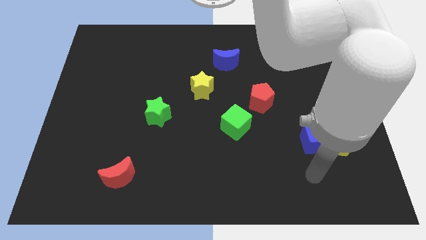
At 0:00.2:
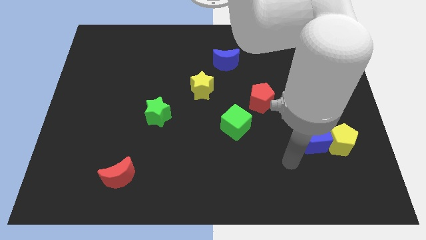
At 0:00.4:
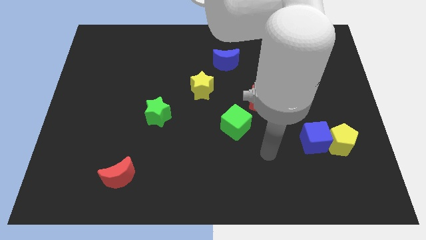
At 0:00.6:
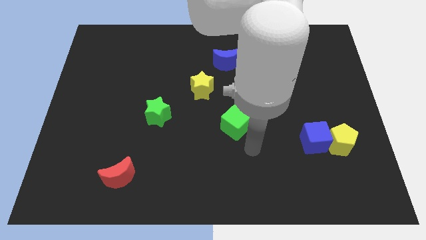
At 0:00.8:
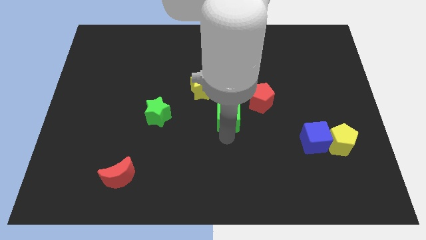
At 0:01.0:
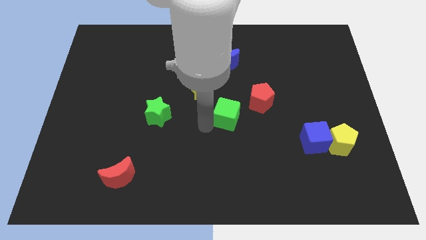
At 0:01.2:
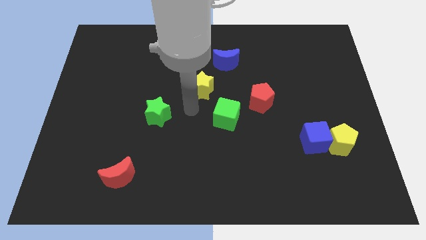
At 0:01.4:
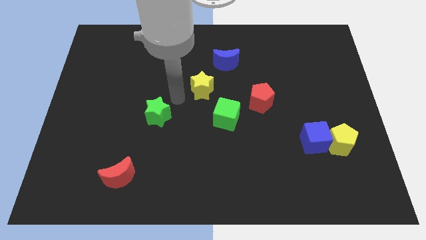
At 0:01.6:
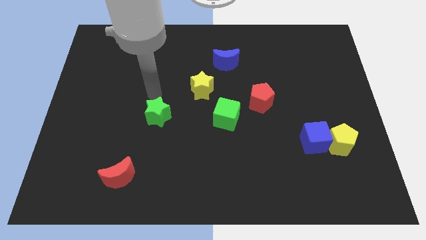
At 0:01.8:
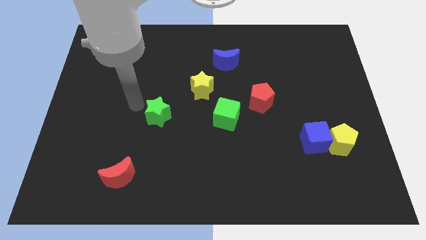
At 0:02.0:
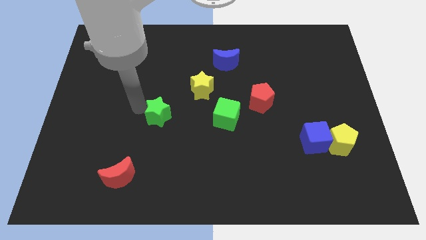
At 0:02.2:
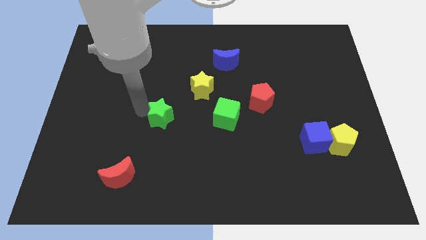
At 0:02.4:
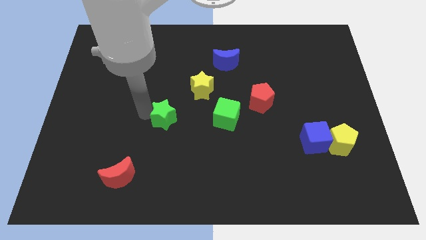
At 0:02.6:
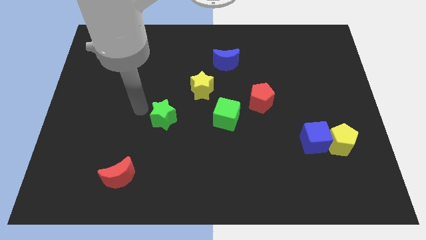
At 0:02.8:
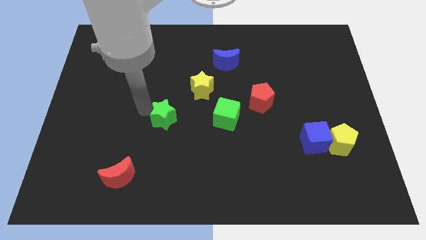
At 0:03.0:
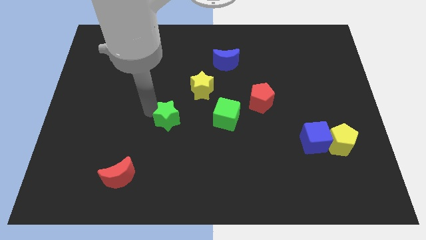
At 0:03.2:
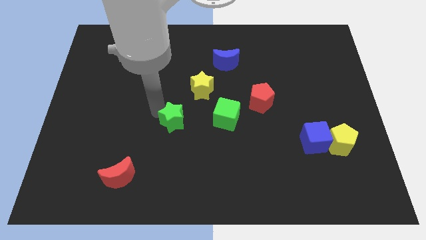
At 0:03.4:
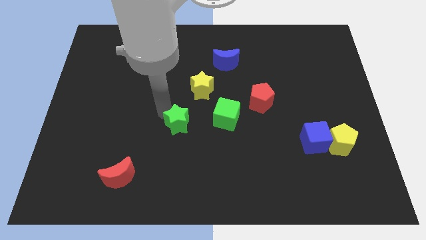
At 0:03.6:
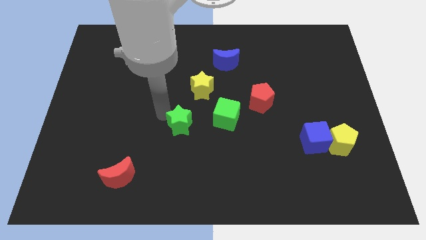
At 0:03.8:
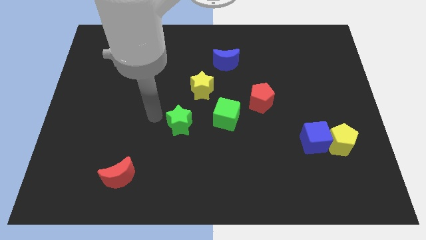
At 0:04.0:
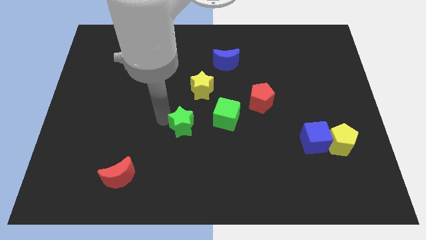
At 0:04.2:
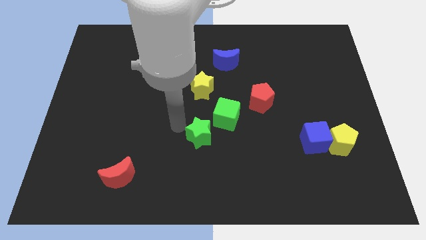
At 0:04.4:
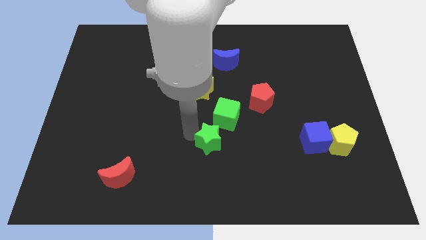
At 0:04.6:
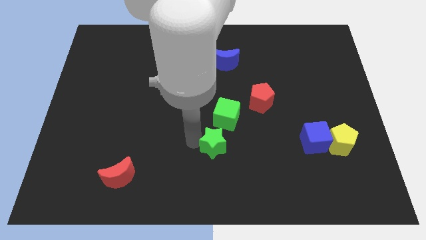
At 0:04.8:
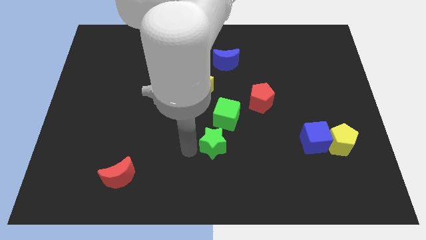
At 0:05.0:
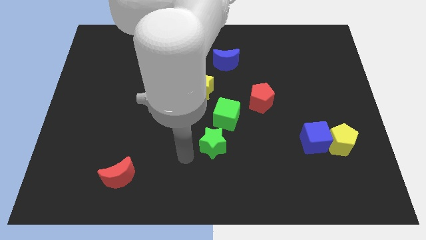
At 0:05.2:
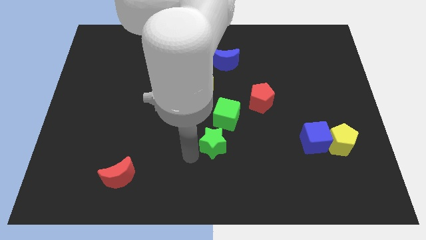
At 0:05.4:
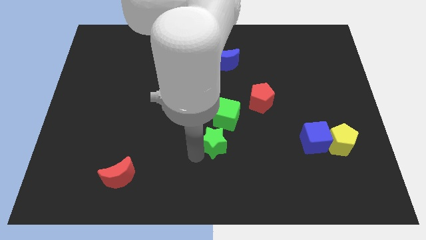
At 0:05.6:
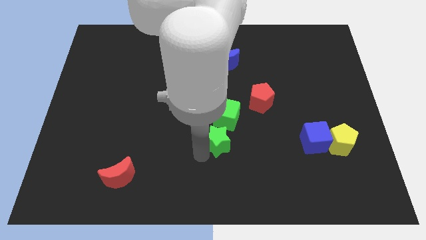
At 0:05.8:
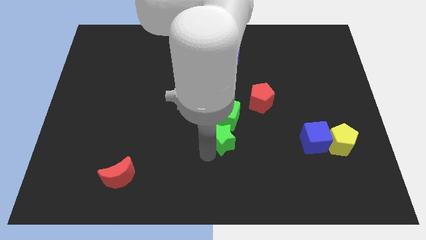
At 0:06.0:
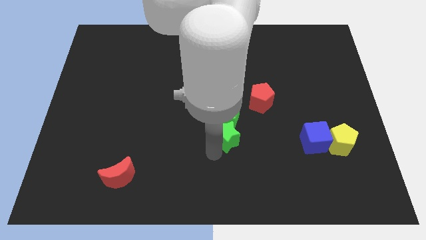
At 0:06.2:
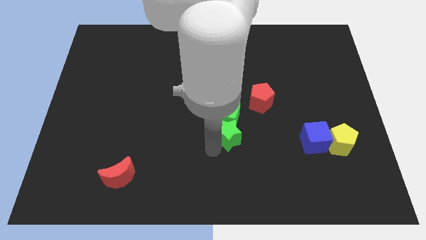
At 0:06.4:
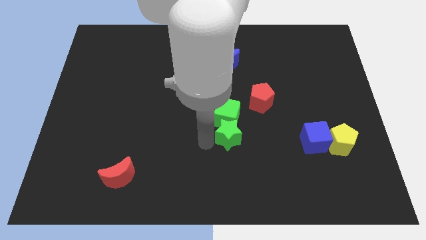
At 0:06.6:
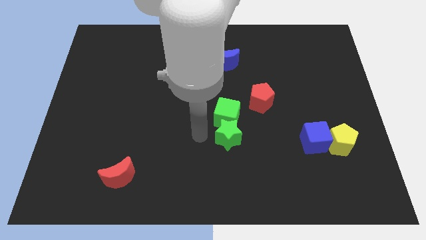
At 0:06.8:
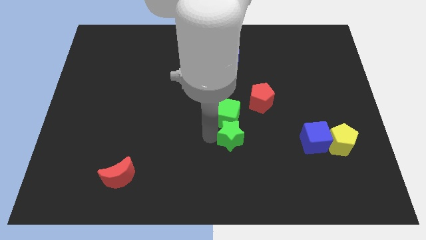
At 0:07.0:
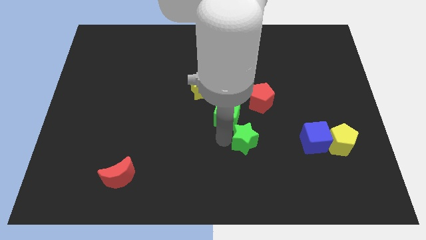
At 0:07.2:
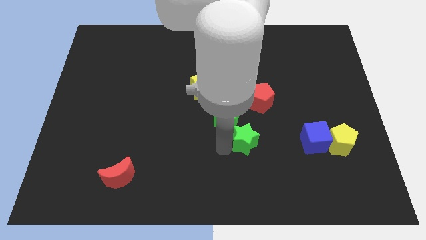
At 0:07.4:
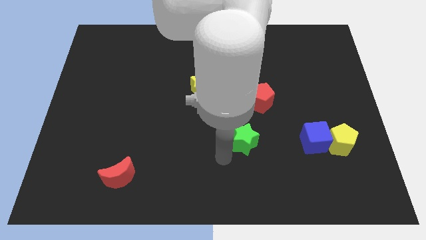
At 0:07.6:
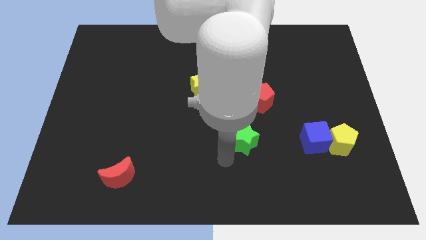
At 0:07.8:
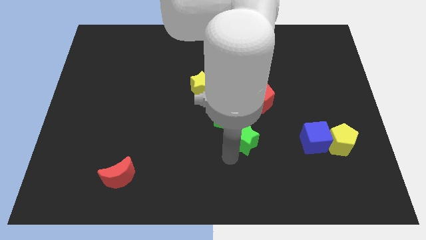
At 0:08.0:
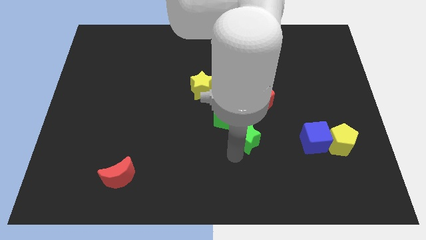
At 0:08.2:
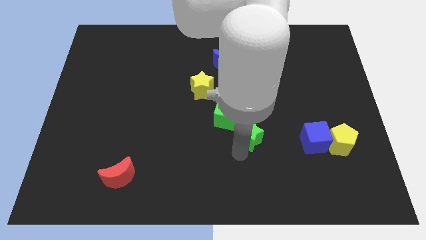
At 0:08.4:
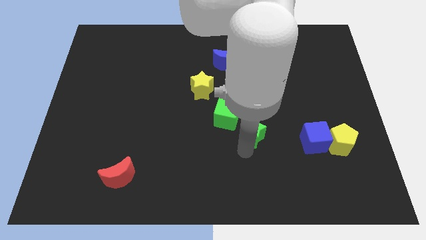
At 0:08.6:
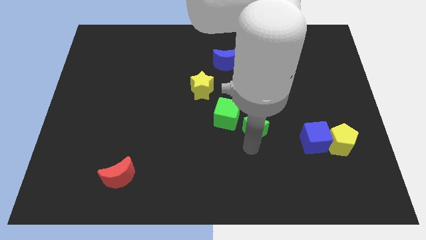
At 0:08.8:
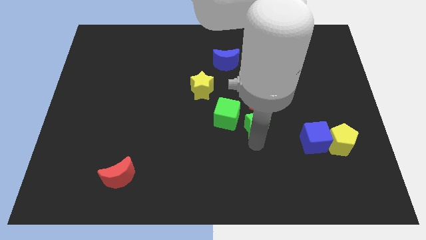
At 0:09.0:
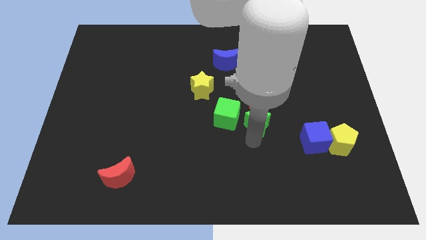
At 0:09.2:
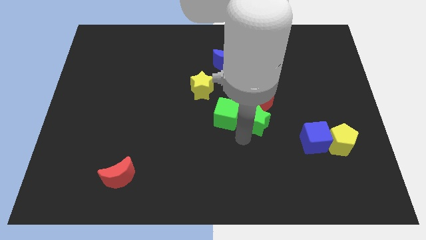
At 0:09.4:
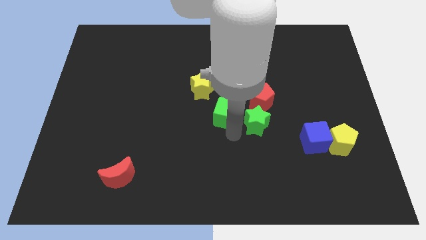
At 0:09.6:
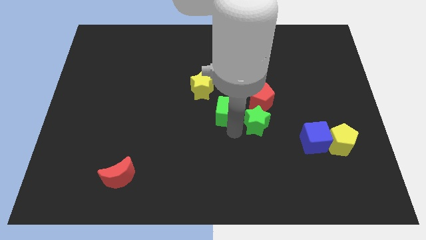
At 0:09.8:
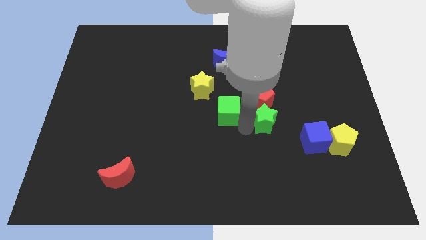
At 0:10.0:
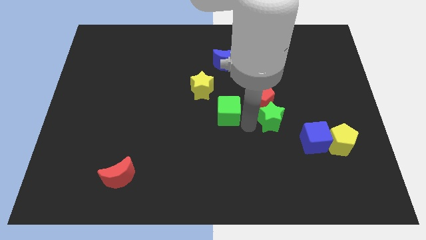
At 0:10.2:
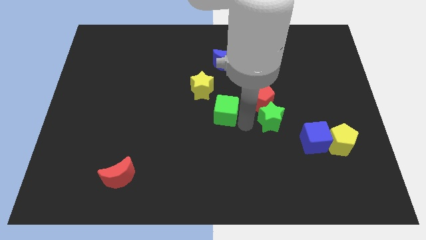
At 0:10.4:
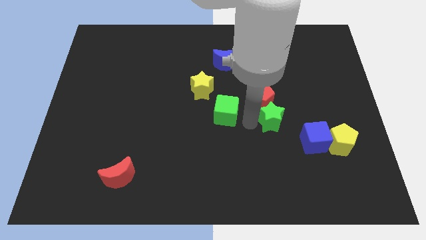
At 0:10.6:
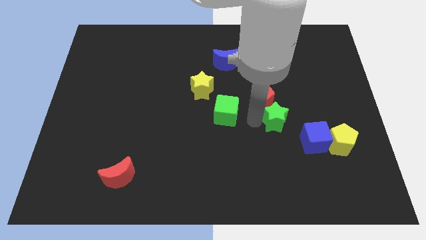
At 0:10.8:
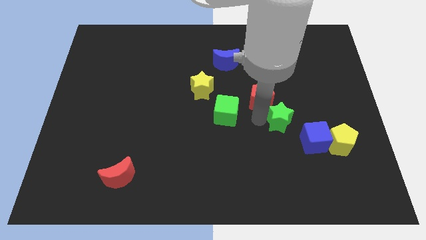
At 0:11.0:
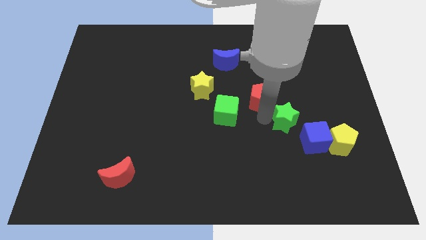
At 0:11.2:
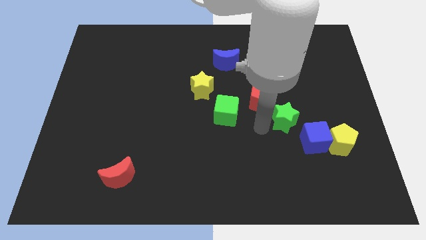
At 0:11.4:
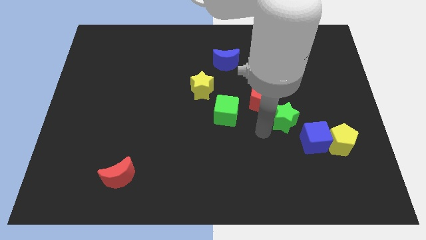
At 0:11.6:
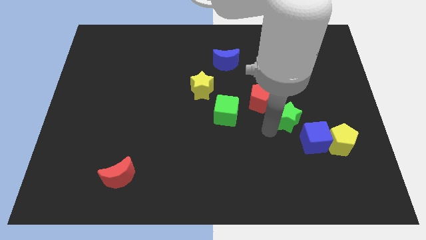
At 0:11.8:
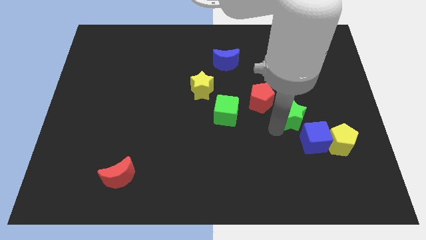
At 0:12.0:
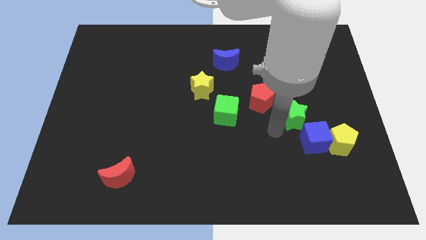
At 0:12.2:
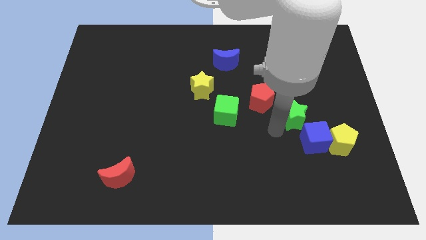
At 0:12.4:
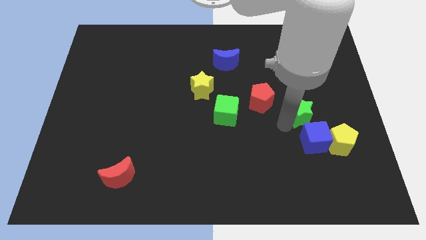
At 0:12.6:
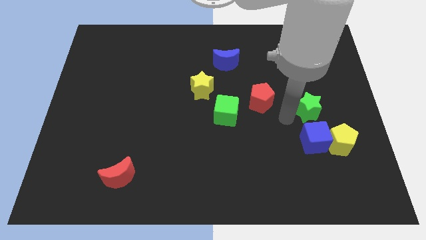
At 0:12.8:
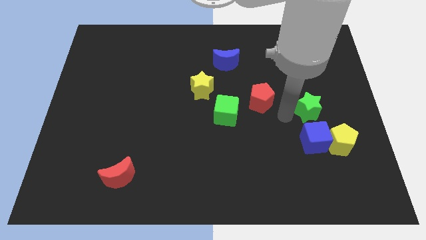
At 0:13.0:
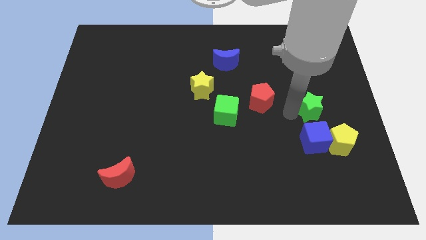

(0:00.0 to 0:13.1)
move the green star to the top of the yellow pentagon

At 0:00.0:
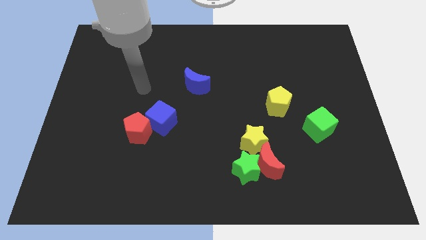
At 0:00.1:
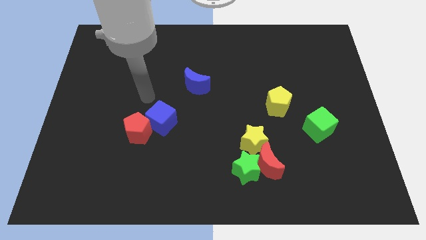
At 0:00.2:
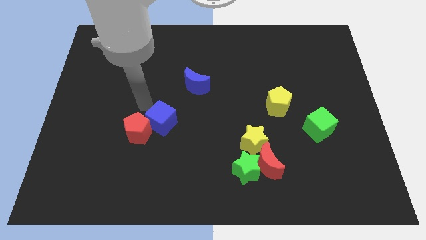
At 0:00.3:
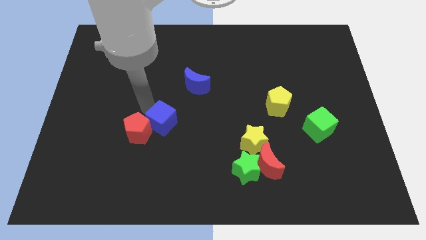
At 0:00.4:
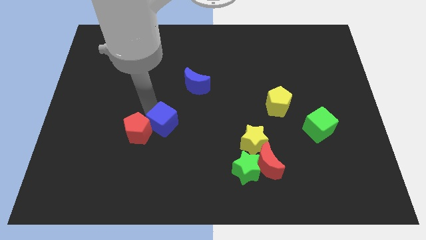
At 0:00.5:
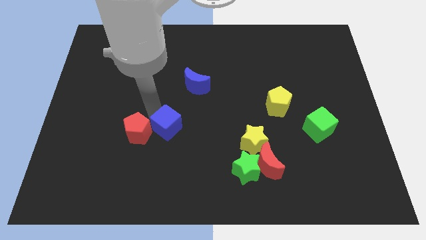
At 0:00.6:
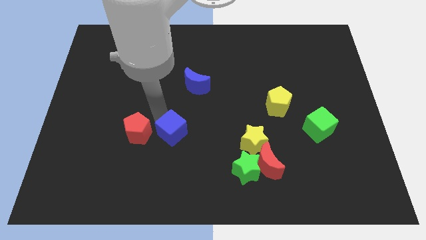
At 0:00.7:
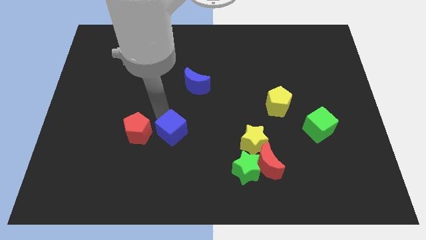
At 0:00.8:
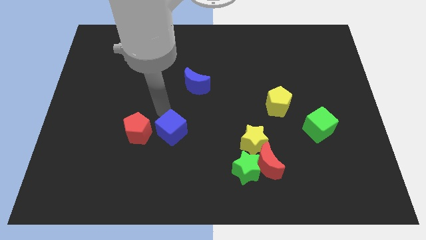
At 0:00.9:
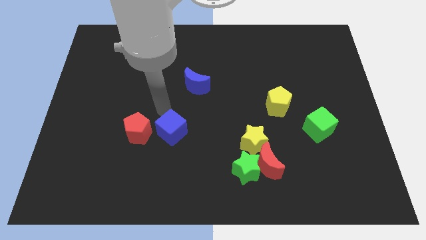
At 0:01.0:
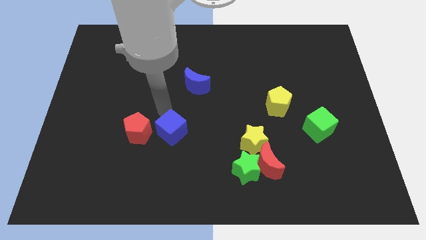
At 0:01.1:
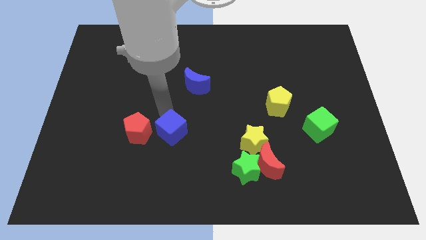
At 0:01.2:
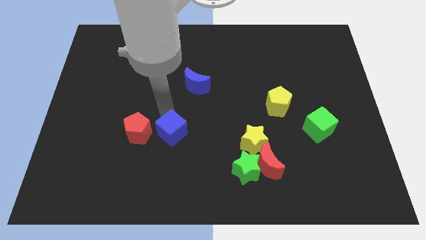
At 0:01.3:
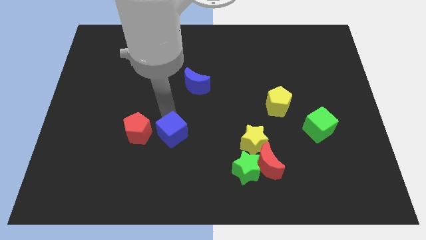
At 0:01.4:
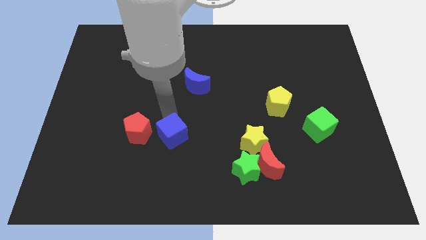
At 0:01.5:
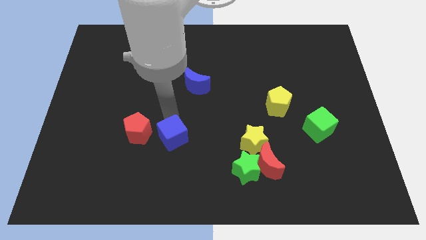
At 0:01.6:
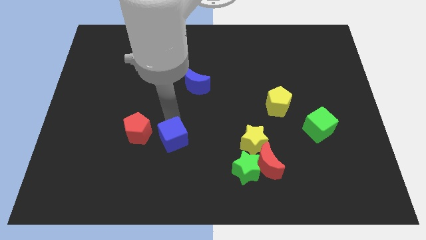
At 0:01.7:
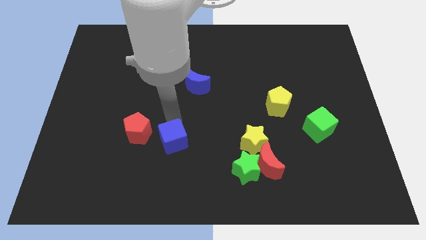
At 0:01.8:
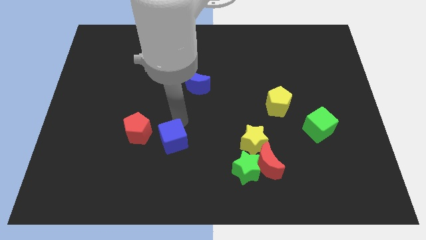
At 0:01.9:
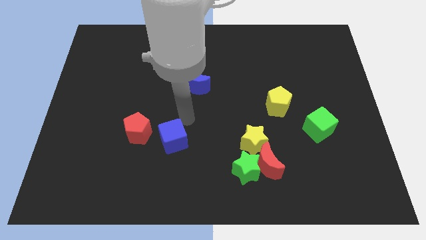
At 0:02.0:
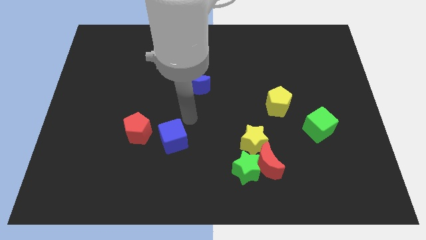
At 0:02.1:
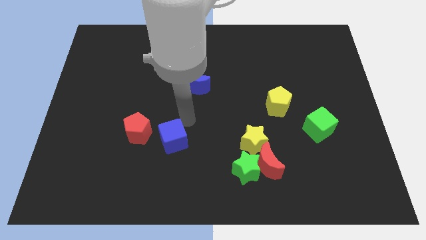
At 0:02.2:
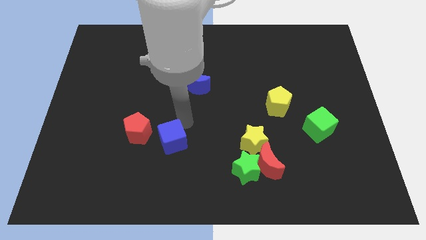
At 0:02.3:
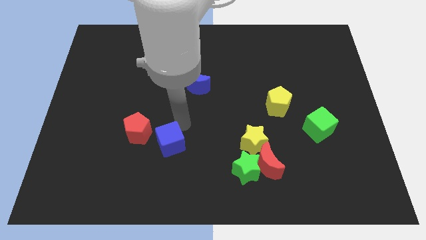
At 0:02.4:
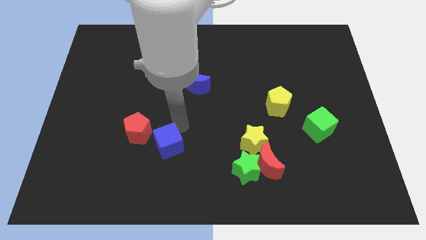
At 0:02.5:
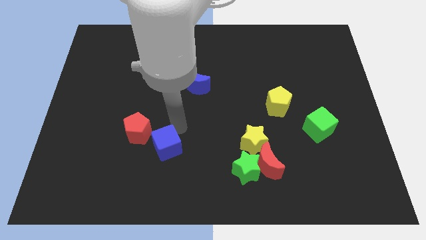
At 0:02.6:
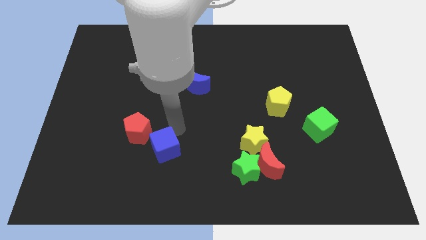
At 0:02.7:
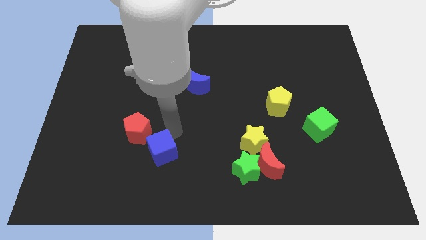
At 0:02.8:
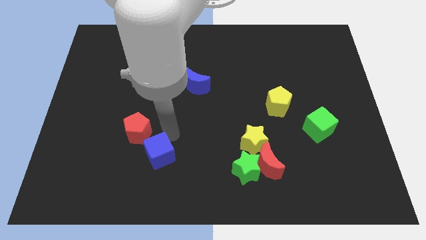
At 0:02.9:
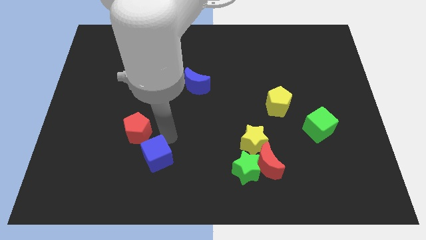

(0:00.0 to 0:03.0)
put the blue cube to the bottom side of the red pentagon
